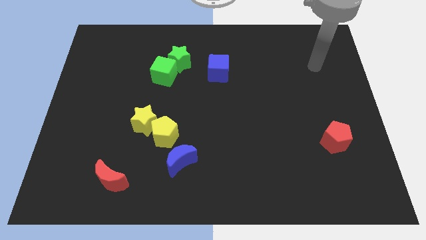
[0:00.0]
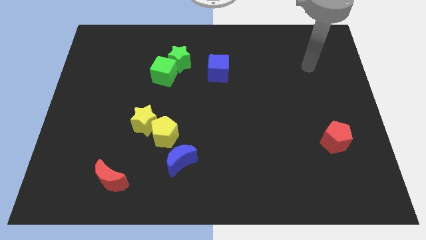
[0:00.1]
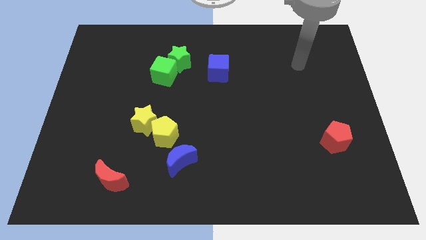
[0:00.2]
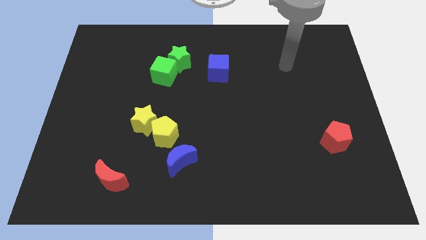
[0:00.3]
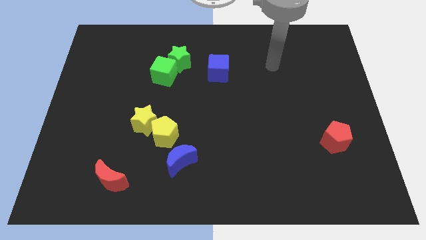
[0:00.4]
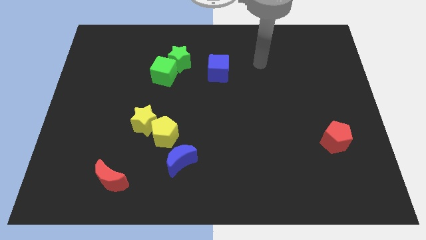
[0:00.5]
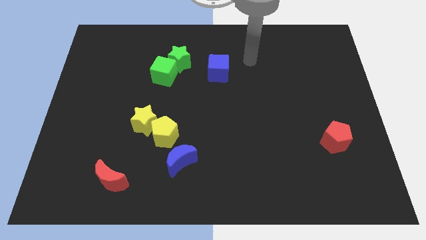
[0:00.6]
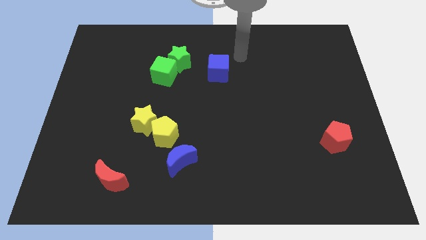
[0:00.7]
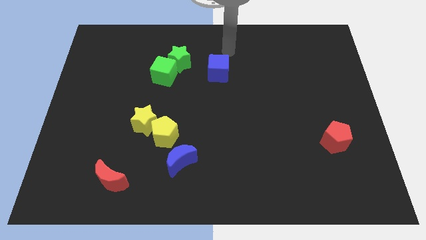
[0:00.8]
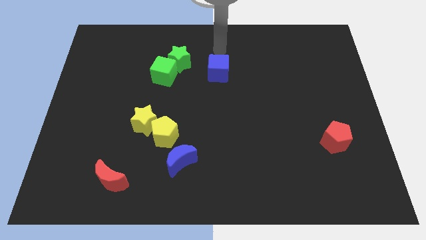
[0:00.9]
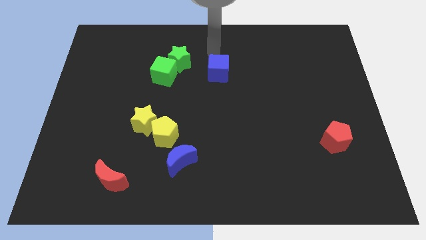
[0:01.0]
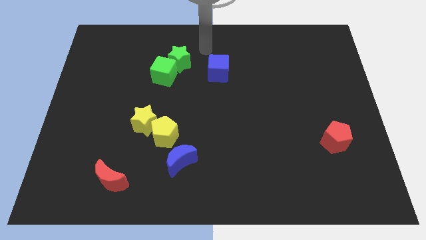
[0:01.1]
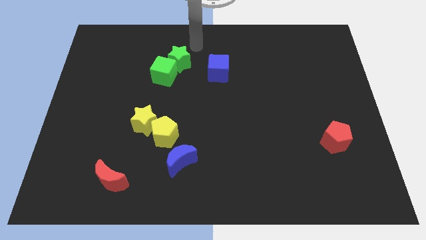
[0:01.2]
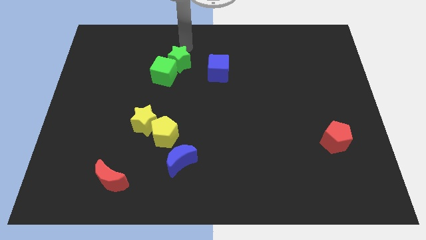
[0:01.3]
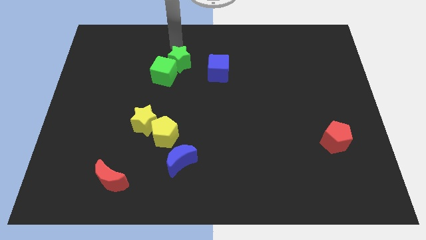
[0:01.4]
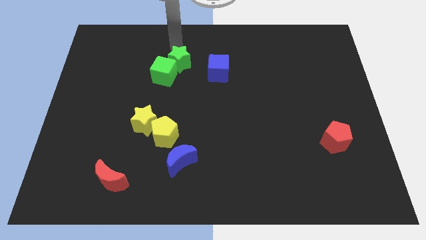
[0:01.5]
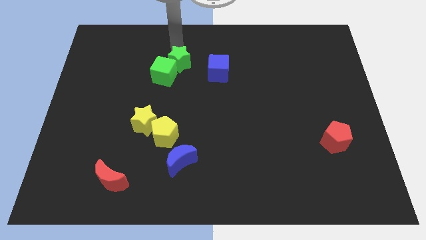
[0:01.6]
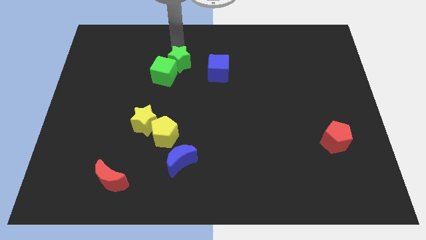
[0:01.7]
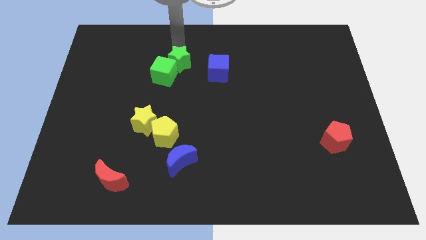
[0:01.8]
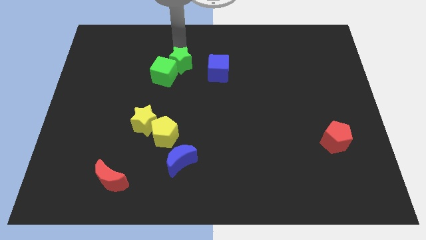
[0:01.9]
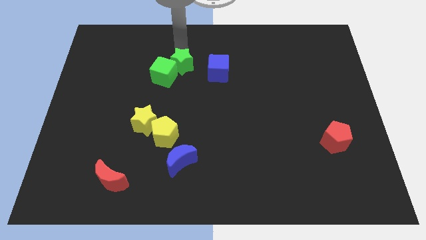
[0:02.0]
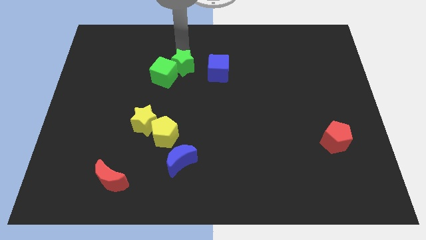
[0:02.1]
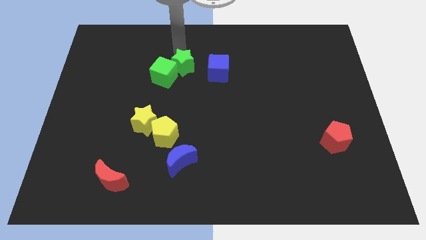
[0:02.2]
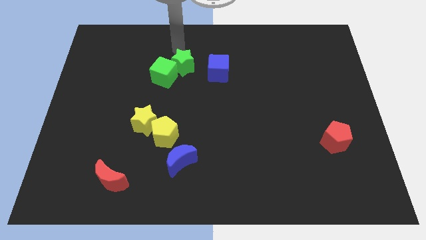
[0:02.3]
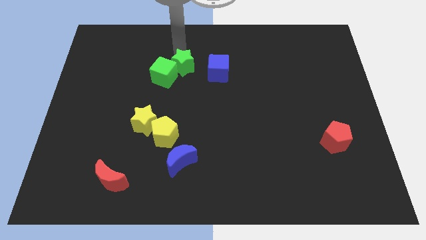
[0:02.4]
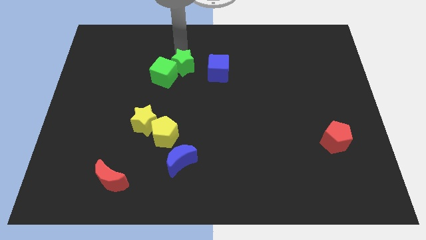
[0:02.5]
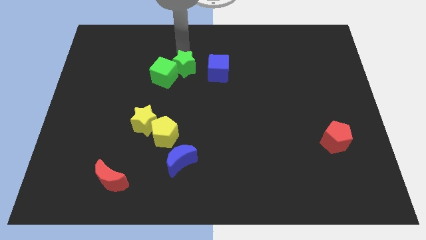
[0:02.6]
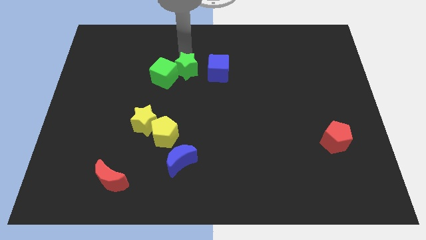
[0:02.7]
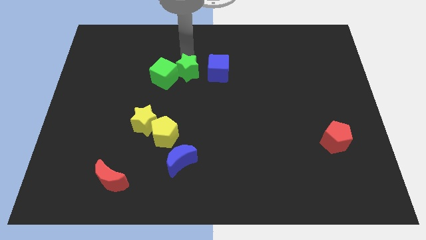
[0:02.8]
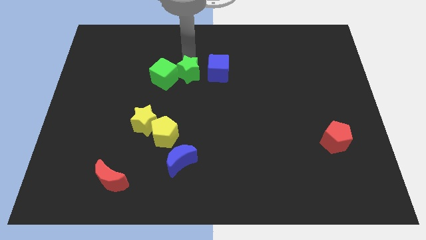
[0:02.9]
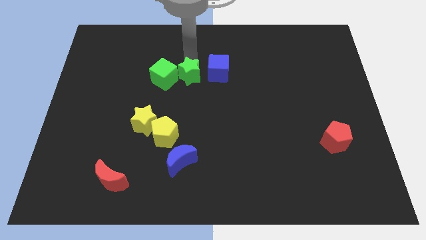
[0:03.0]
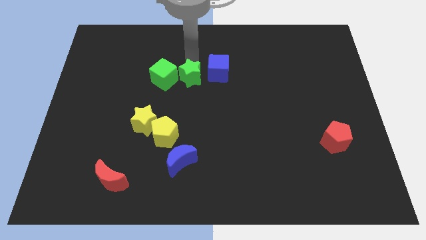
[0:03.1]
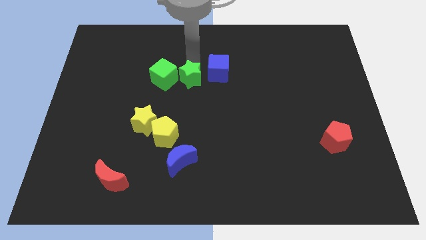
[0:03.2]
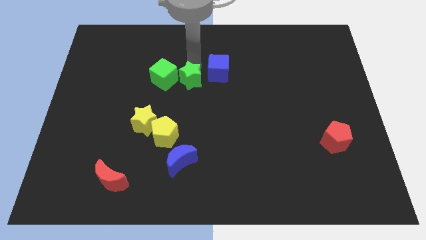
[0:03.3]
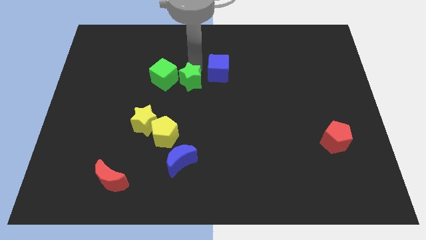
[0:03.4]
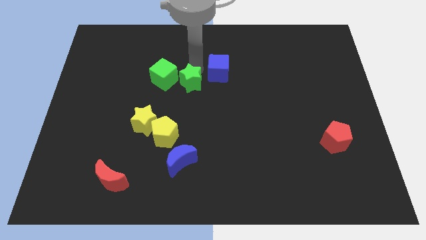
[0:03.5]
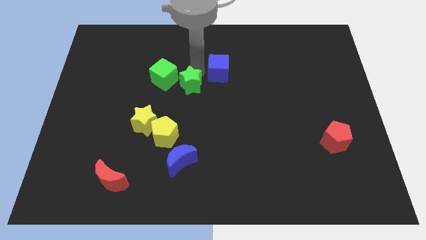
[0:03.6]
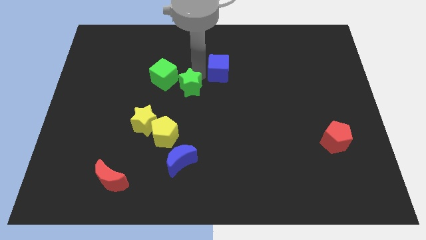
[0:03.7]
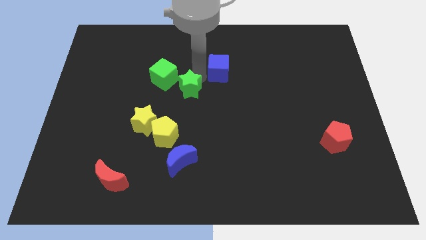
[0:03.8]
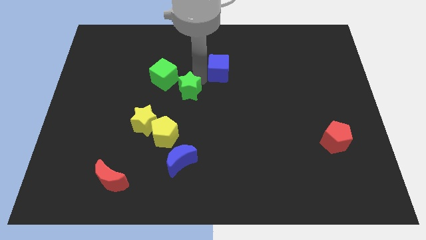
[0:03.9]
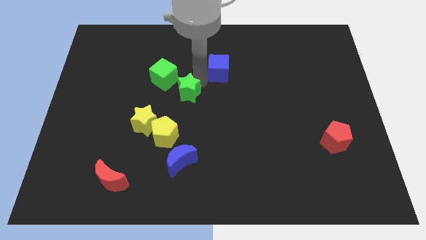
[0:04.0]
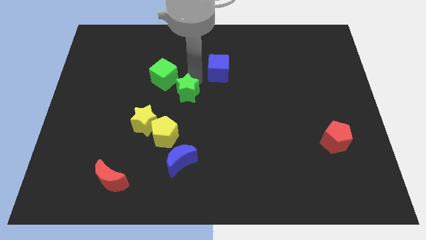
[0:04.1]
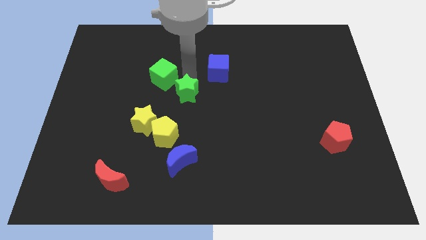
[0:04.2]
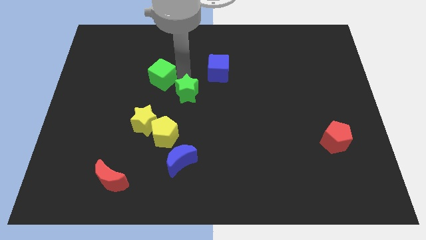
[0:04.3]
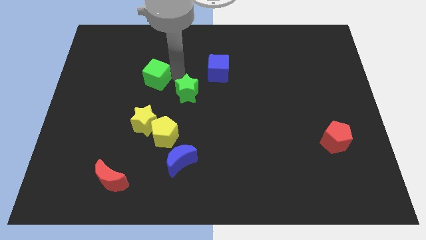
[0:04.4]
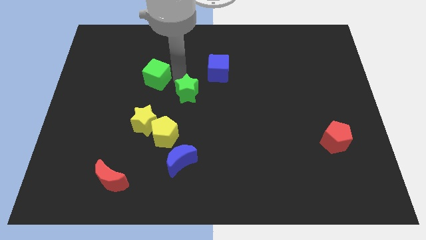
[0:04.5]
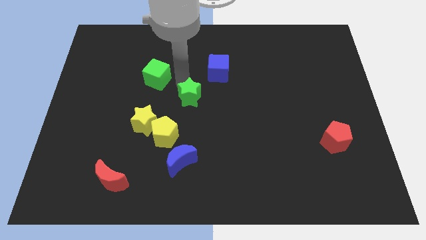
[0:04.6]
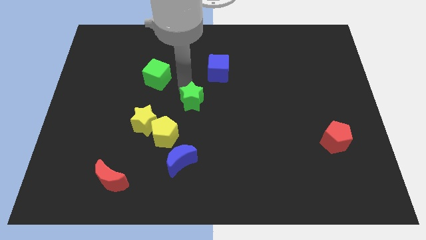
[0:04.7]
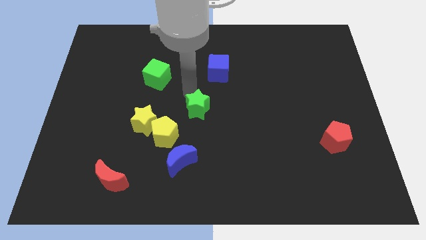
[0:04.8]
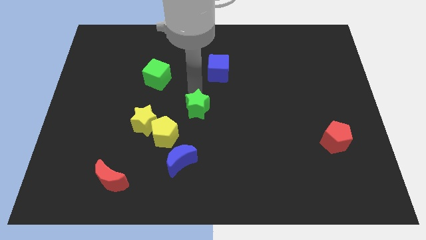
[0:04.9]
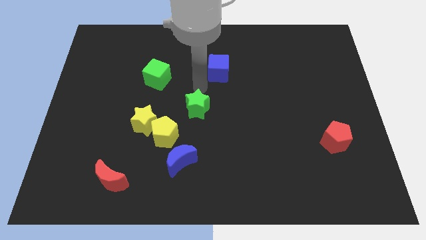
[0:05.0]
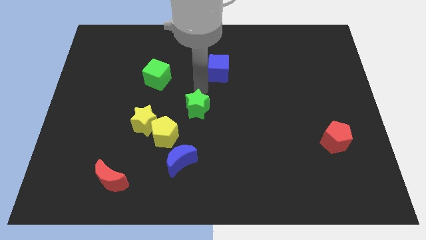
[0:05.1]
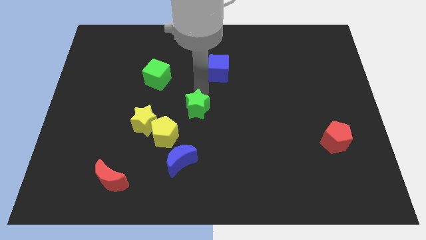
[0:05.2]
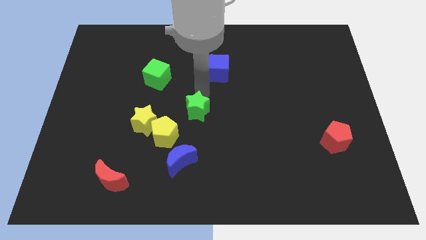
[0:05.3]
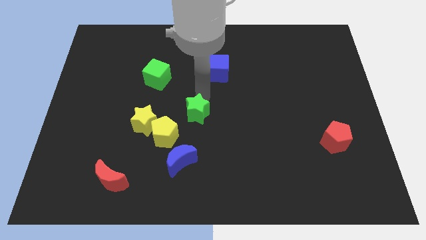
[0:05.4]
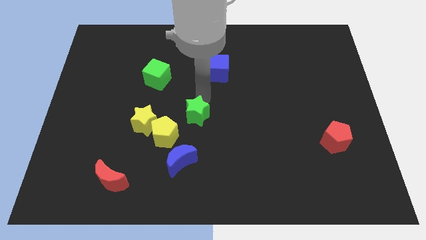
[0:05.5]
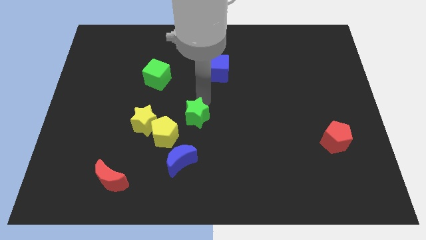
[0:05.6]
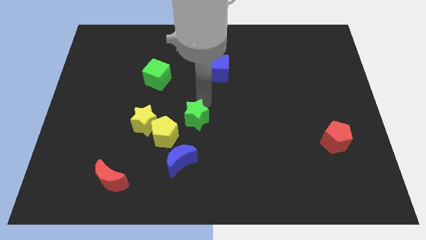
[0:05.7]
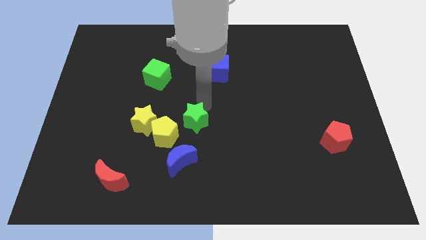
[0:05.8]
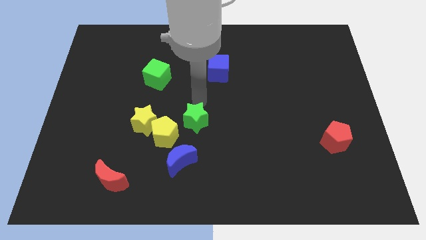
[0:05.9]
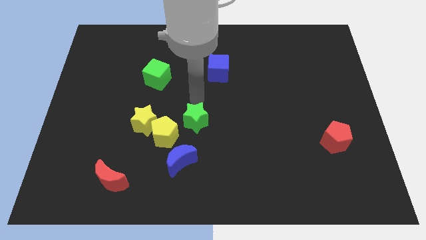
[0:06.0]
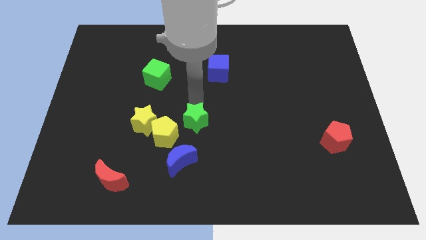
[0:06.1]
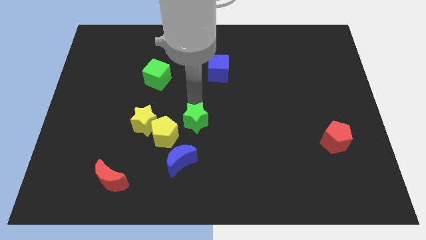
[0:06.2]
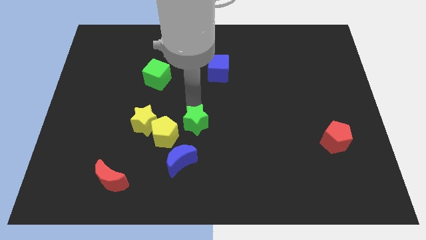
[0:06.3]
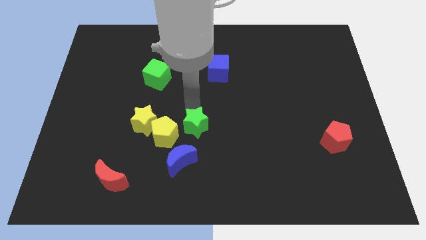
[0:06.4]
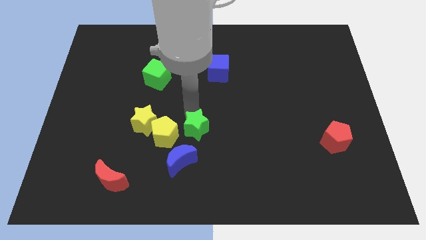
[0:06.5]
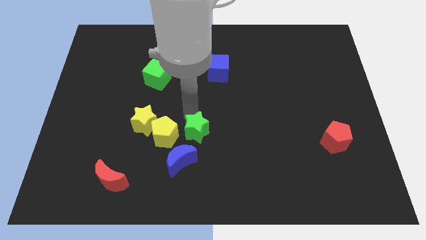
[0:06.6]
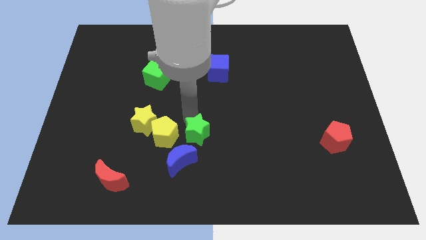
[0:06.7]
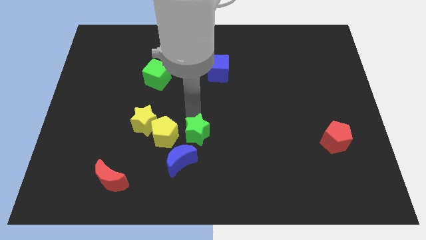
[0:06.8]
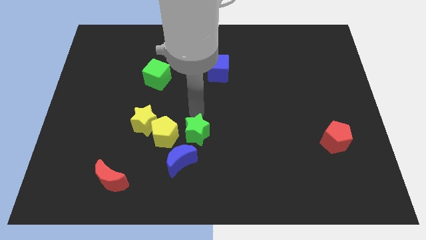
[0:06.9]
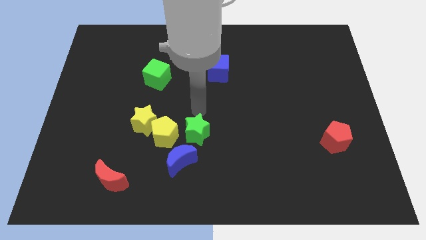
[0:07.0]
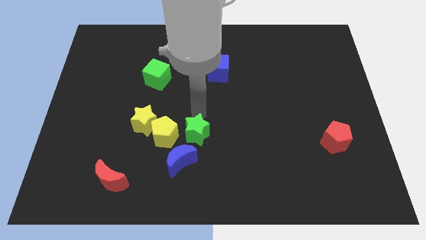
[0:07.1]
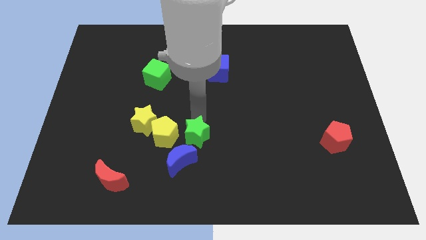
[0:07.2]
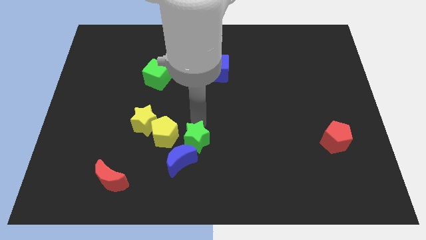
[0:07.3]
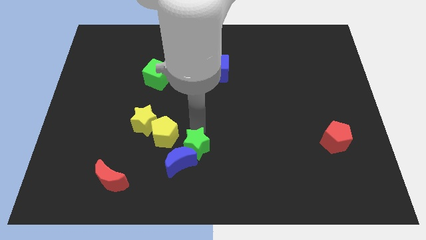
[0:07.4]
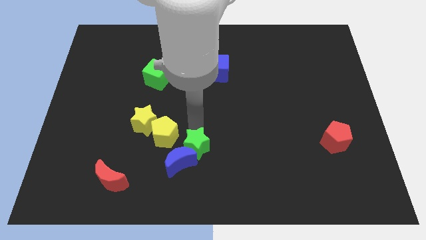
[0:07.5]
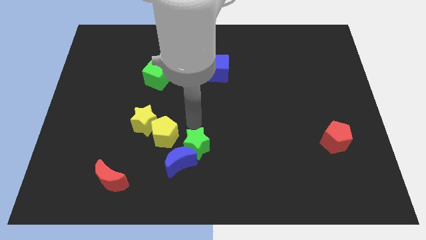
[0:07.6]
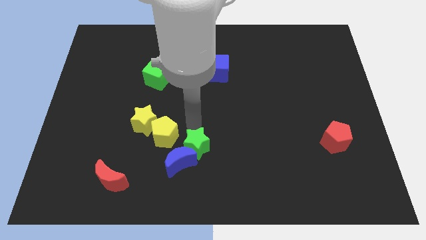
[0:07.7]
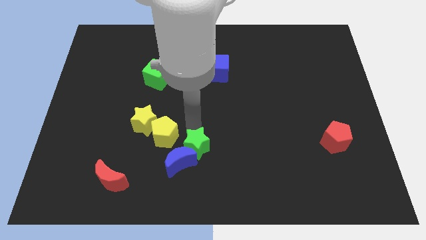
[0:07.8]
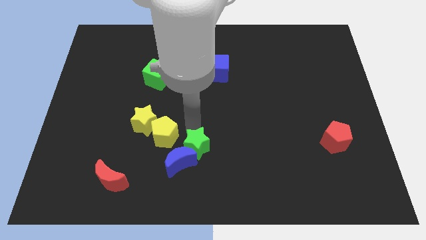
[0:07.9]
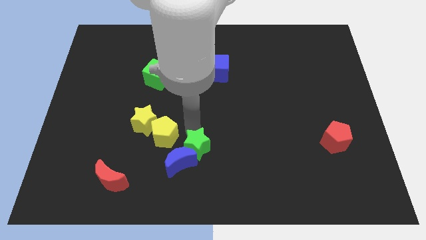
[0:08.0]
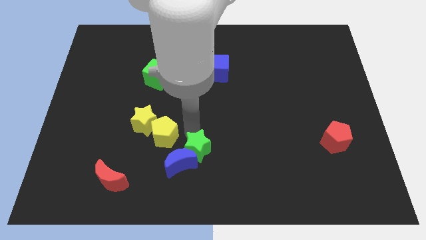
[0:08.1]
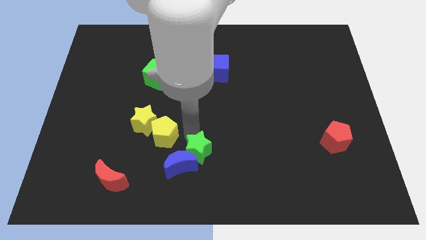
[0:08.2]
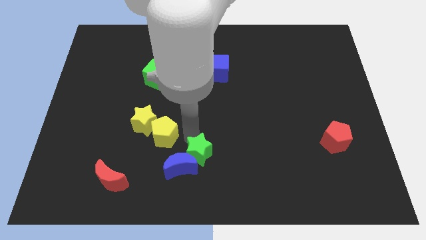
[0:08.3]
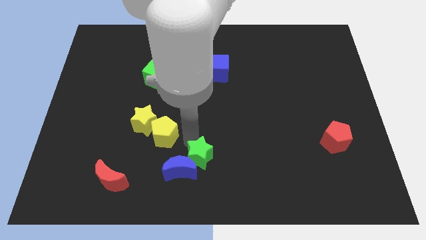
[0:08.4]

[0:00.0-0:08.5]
put the green star to the bottom
